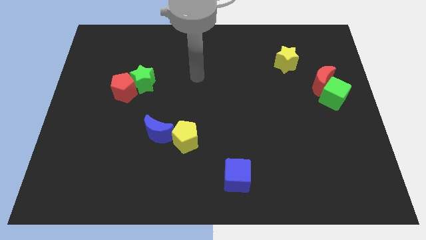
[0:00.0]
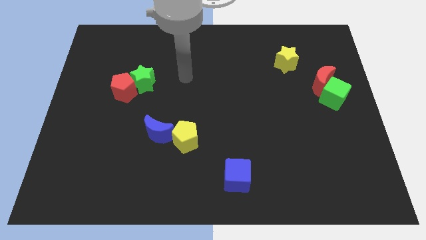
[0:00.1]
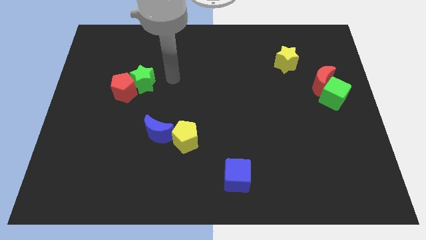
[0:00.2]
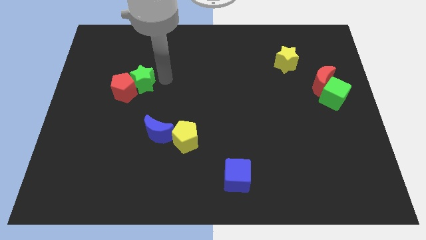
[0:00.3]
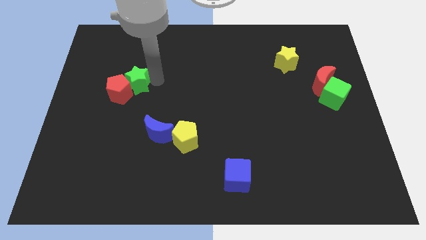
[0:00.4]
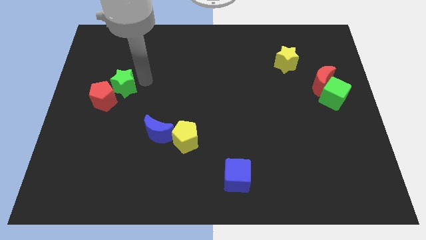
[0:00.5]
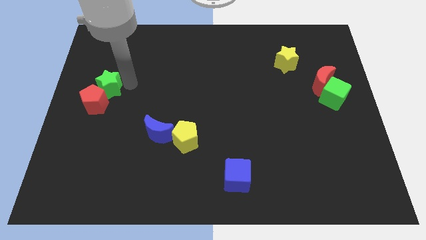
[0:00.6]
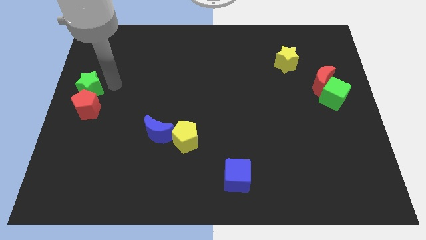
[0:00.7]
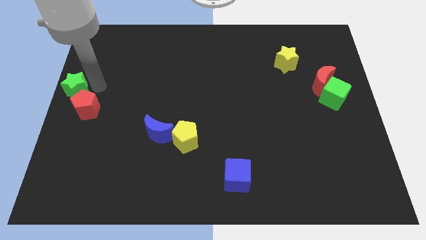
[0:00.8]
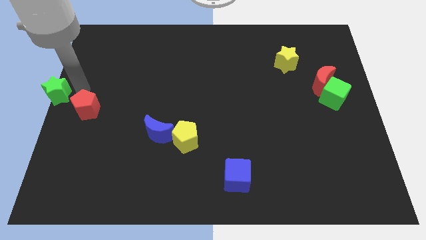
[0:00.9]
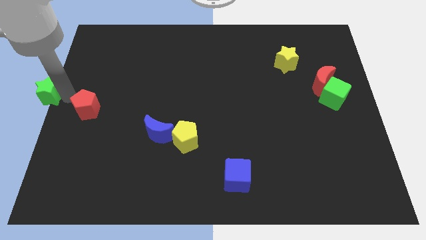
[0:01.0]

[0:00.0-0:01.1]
pull the red pentagon apart from the green star

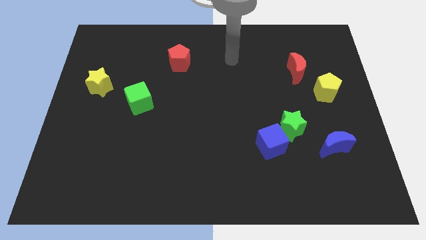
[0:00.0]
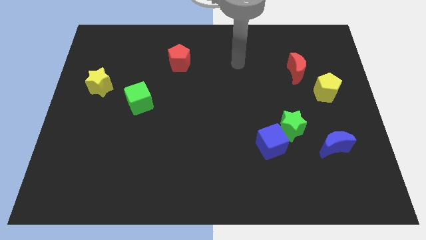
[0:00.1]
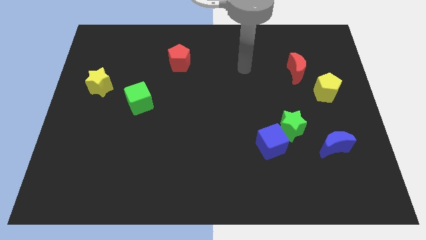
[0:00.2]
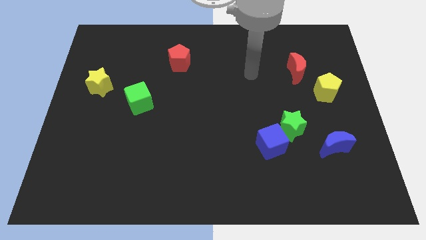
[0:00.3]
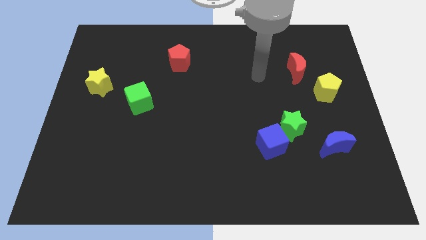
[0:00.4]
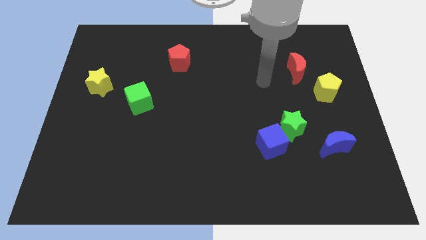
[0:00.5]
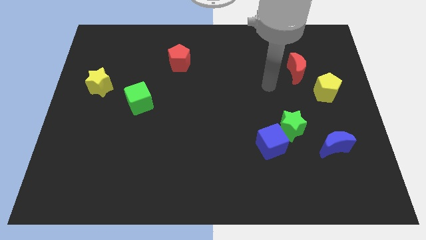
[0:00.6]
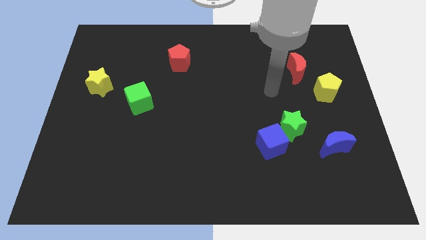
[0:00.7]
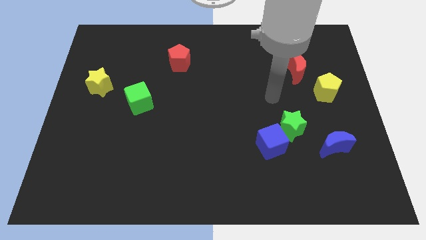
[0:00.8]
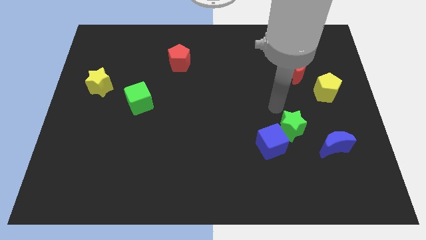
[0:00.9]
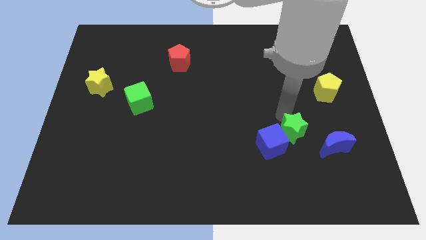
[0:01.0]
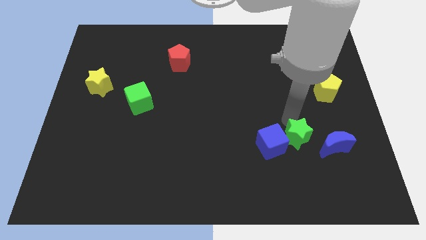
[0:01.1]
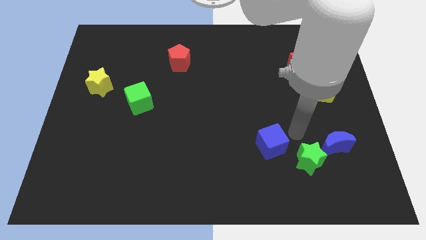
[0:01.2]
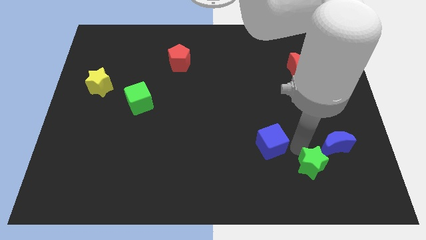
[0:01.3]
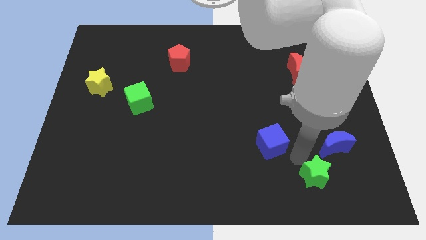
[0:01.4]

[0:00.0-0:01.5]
pull the blue cube apart from the green star

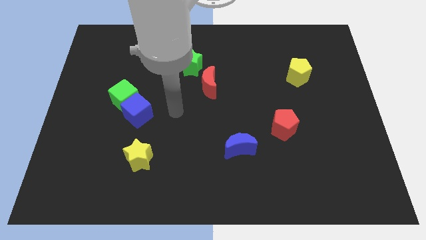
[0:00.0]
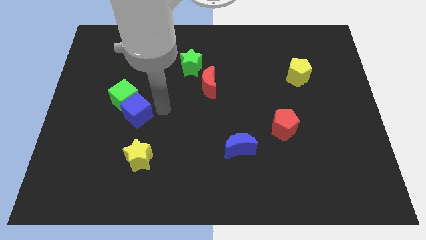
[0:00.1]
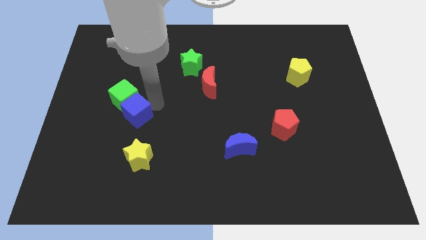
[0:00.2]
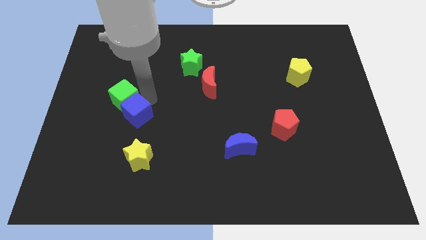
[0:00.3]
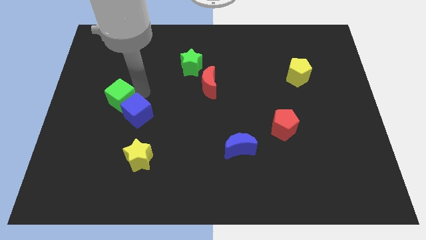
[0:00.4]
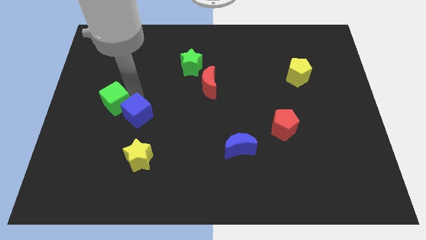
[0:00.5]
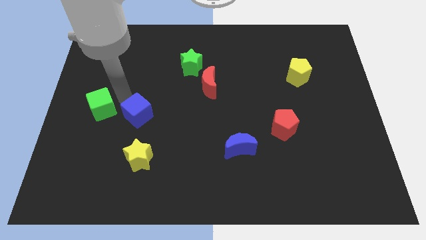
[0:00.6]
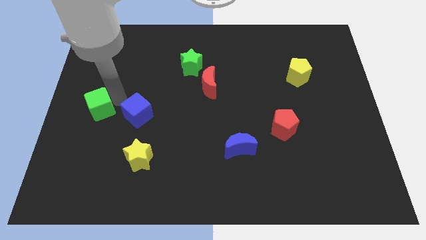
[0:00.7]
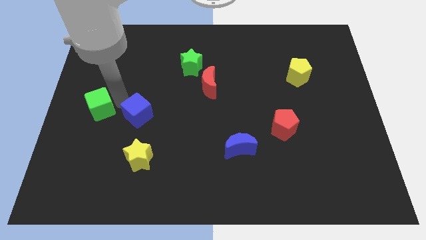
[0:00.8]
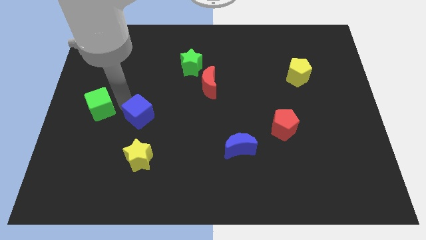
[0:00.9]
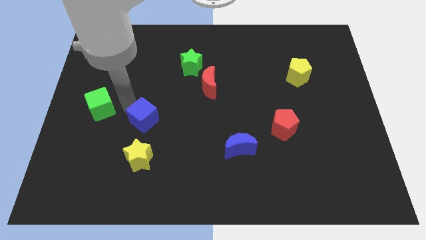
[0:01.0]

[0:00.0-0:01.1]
separate the blue cube from the green cube

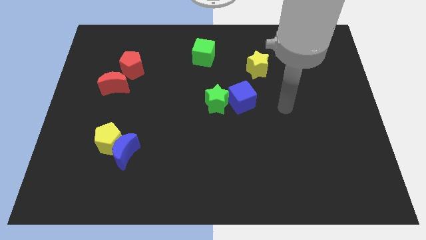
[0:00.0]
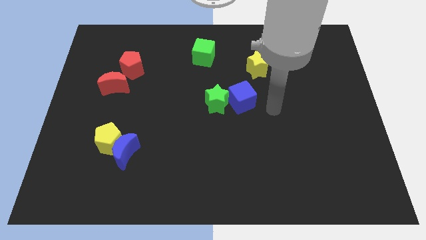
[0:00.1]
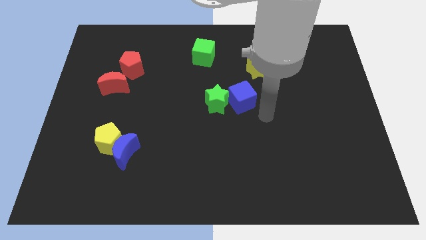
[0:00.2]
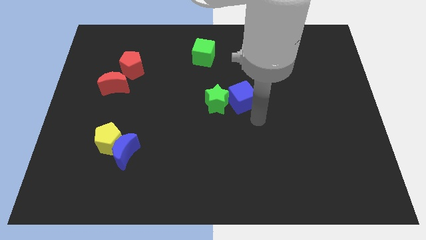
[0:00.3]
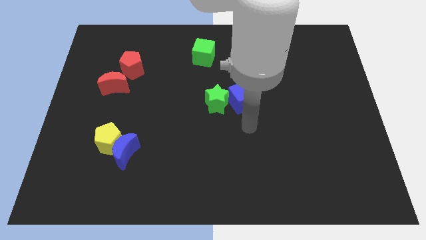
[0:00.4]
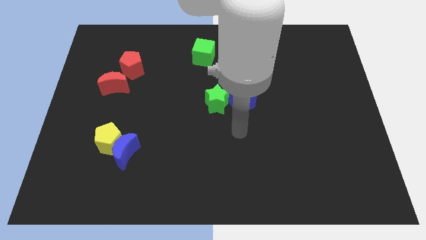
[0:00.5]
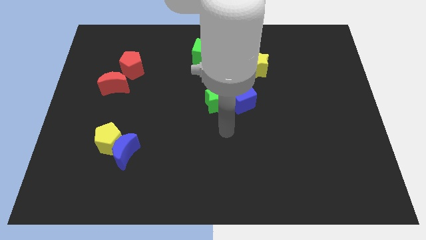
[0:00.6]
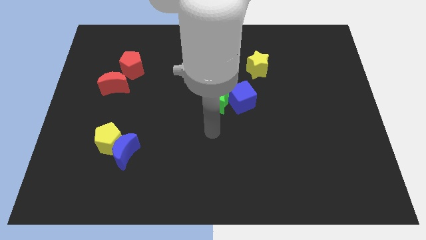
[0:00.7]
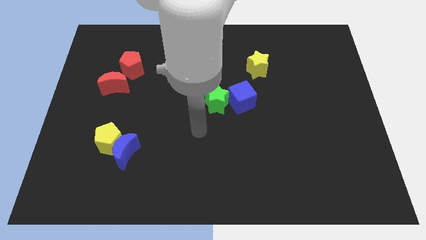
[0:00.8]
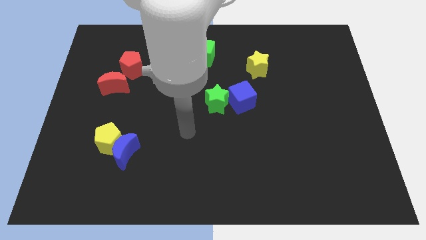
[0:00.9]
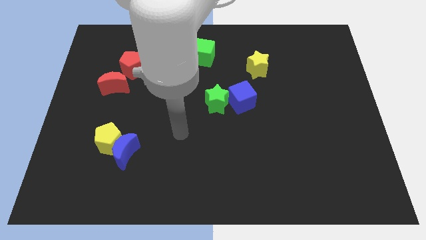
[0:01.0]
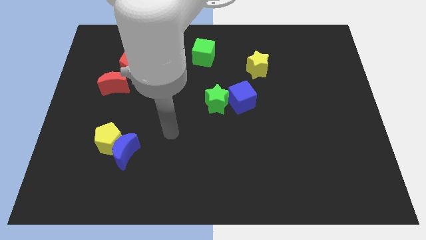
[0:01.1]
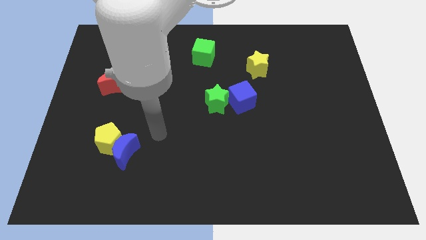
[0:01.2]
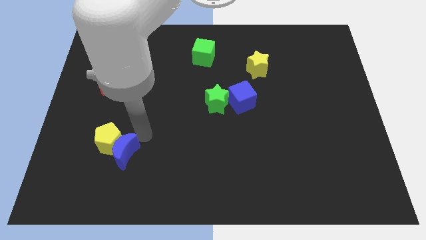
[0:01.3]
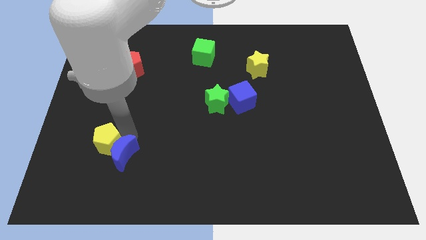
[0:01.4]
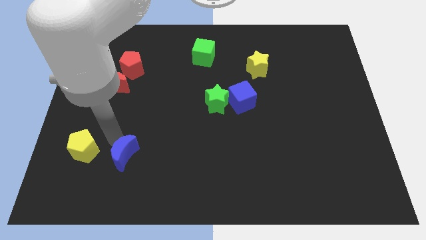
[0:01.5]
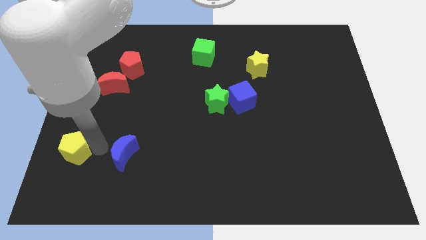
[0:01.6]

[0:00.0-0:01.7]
move the blue moon away from the yellow pentagon

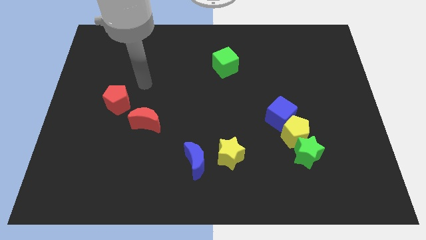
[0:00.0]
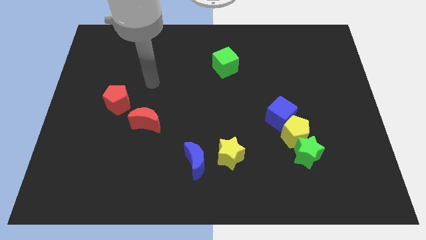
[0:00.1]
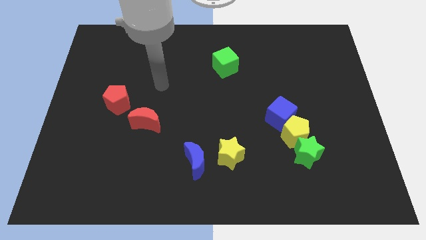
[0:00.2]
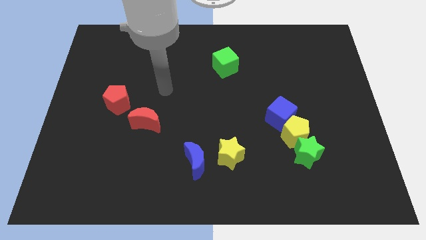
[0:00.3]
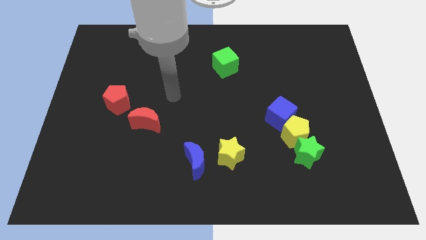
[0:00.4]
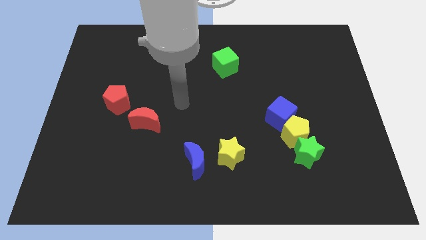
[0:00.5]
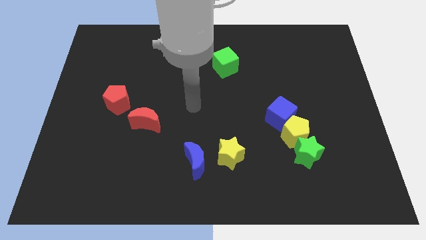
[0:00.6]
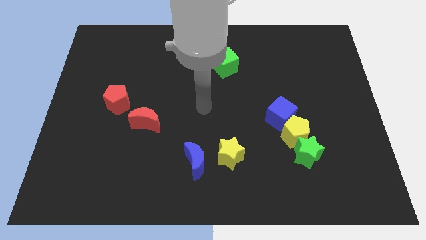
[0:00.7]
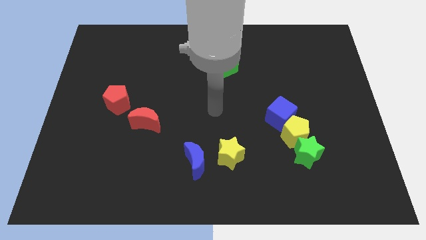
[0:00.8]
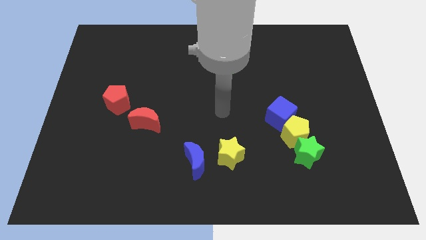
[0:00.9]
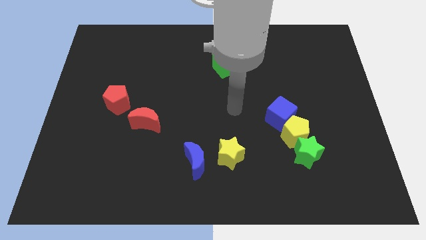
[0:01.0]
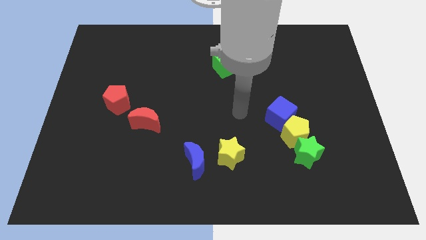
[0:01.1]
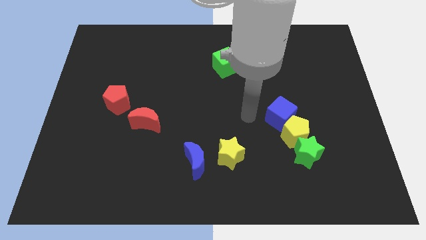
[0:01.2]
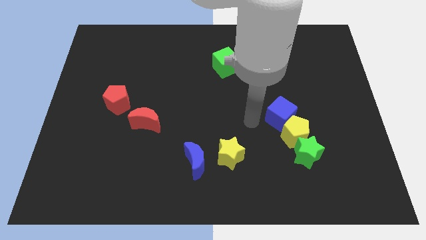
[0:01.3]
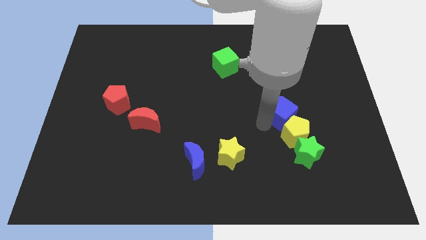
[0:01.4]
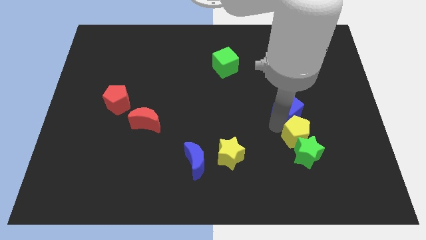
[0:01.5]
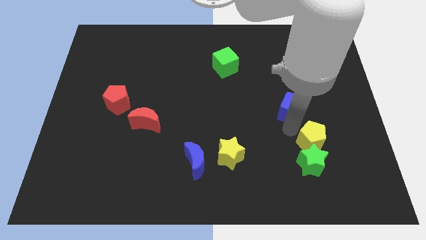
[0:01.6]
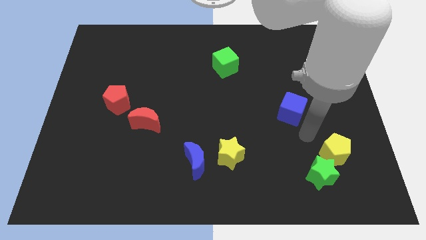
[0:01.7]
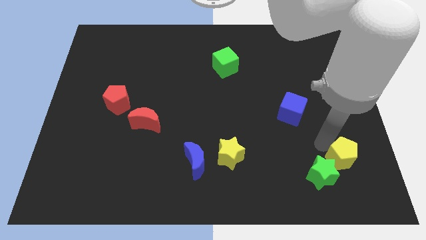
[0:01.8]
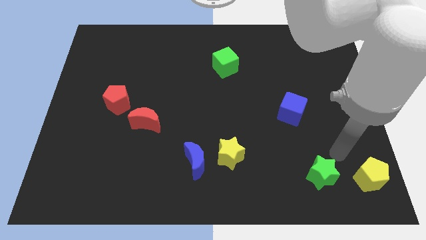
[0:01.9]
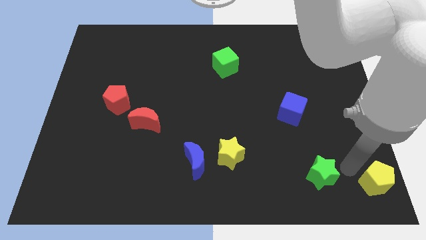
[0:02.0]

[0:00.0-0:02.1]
move the green star away from the yellow pentagon

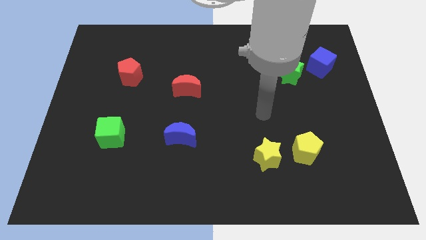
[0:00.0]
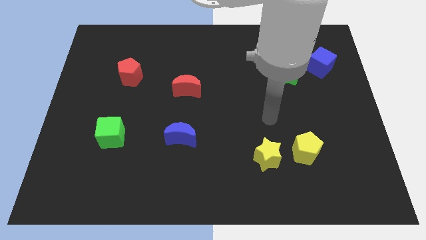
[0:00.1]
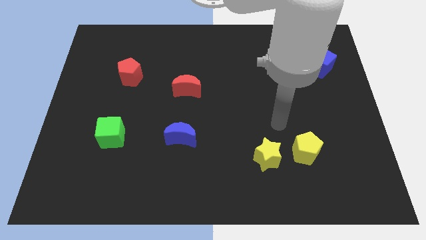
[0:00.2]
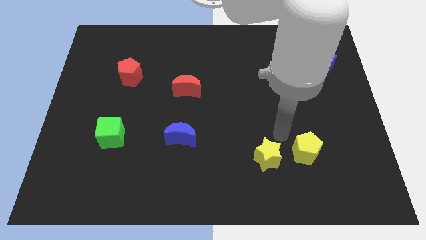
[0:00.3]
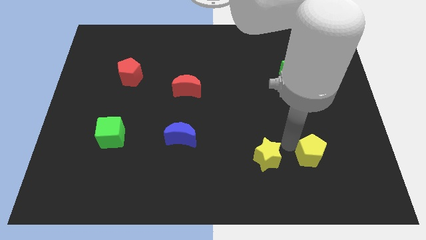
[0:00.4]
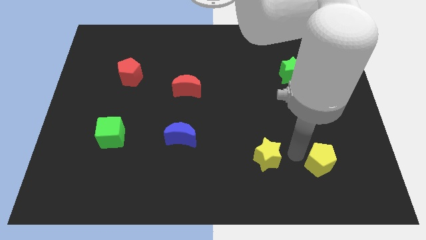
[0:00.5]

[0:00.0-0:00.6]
pull the yellow star apart from the yellow pentagon

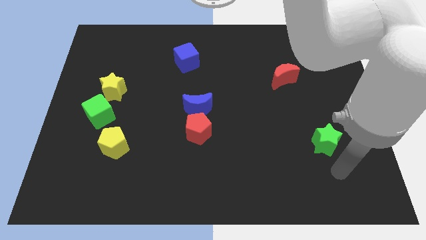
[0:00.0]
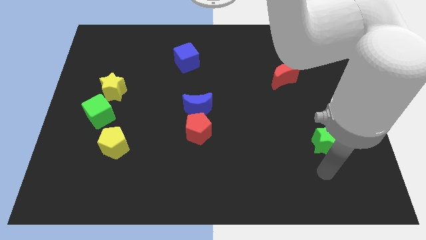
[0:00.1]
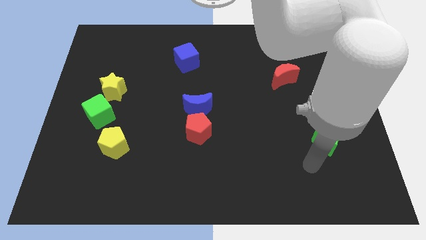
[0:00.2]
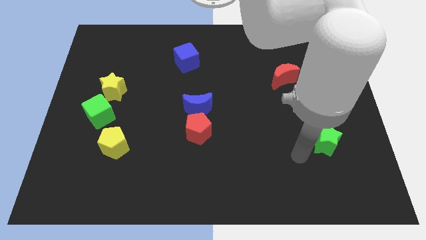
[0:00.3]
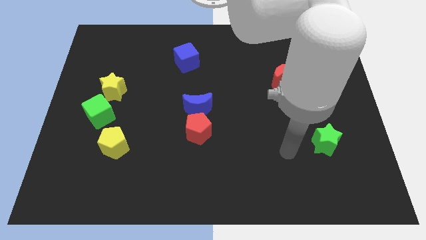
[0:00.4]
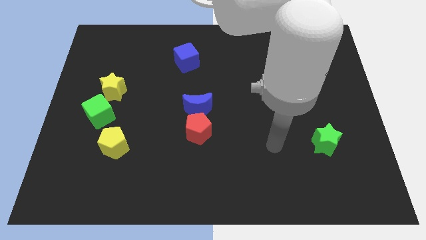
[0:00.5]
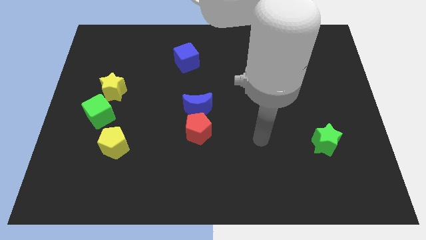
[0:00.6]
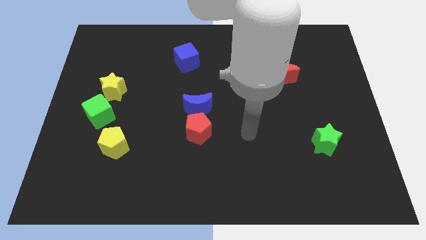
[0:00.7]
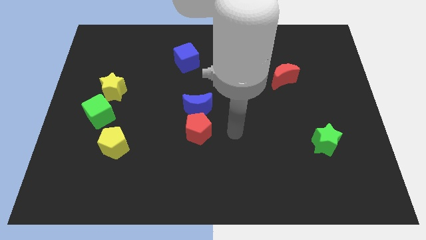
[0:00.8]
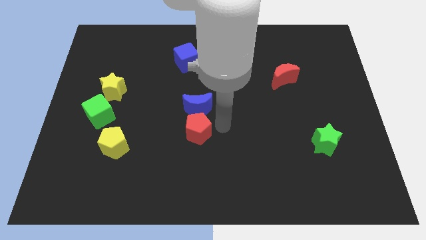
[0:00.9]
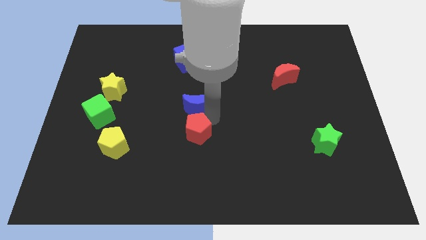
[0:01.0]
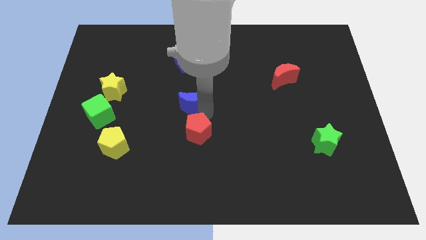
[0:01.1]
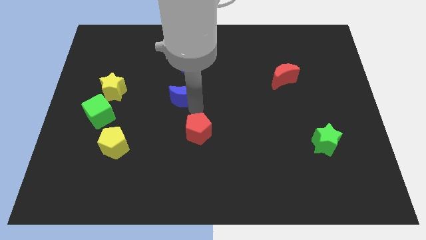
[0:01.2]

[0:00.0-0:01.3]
separate the red pentagon from the blue moon
